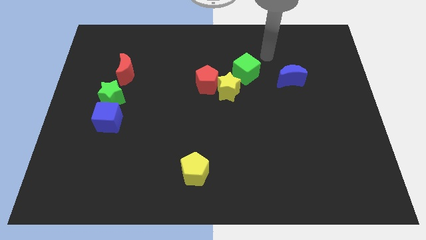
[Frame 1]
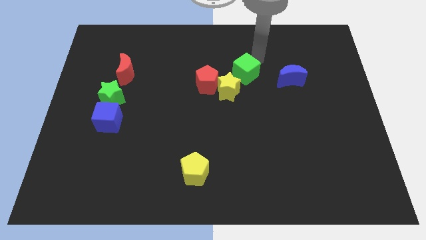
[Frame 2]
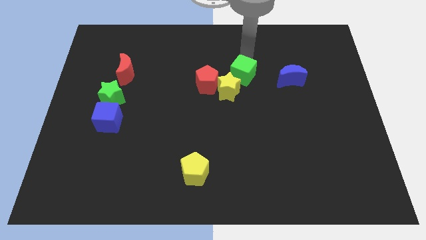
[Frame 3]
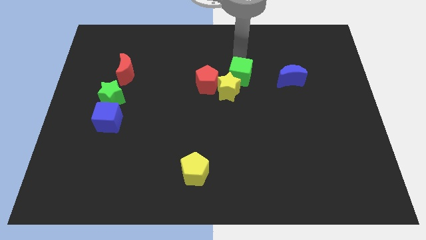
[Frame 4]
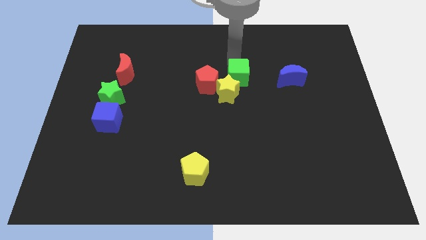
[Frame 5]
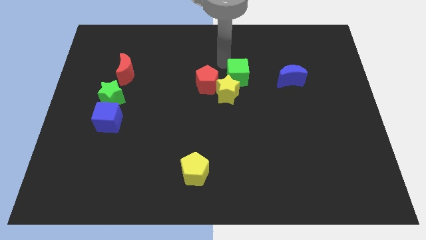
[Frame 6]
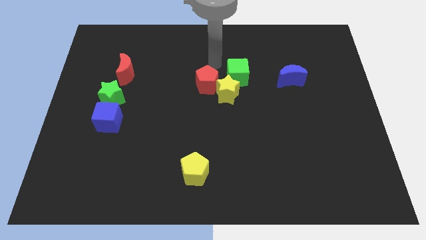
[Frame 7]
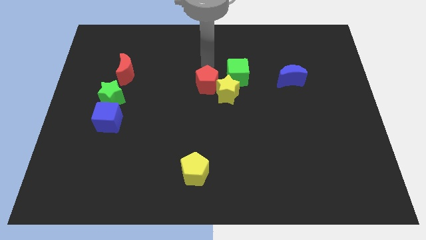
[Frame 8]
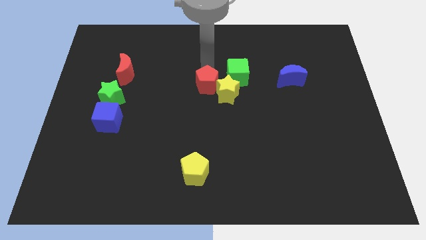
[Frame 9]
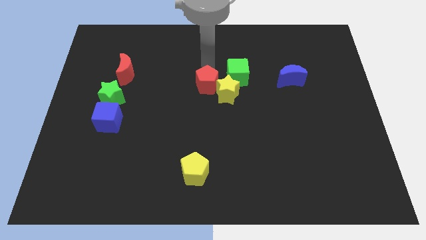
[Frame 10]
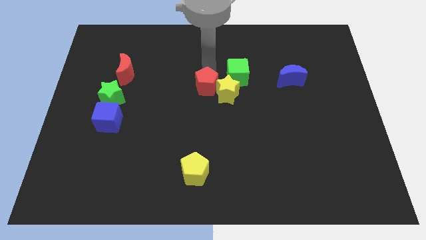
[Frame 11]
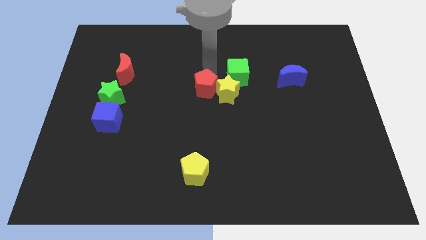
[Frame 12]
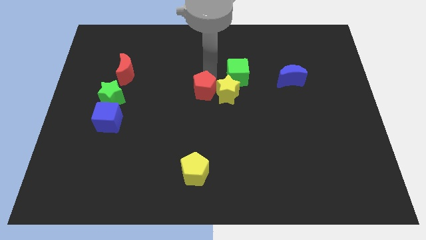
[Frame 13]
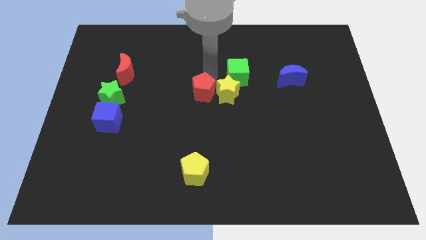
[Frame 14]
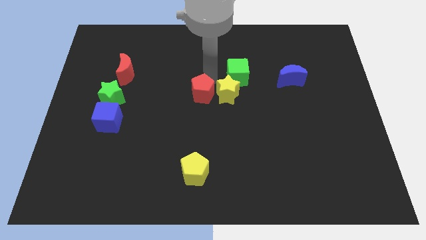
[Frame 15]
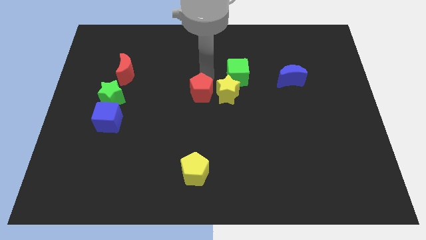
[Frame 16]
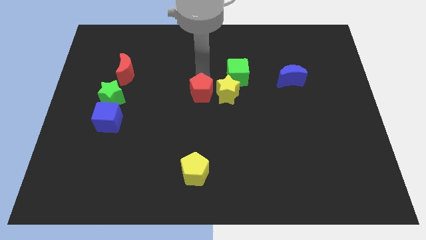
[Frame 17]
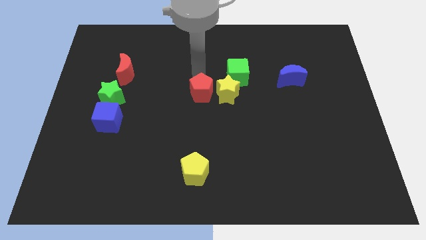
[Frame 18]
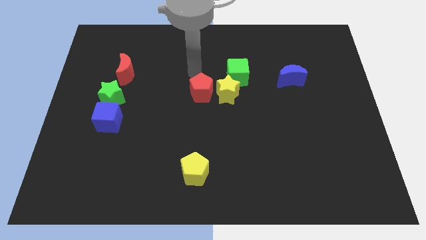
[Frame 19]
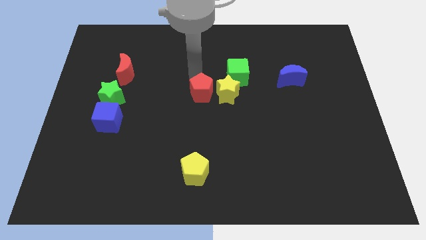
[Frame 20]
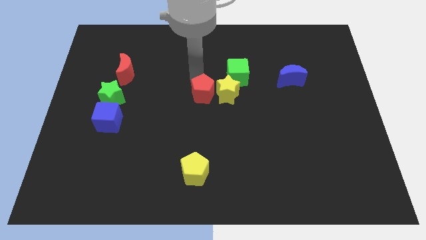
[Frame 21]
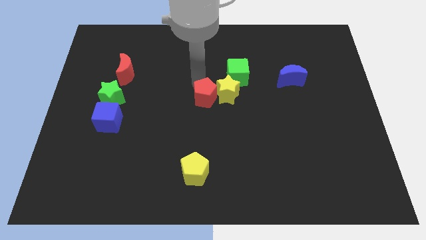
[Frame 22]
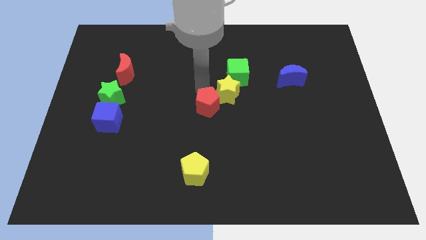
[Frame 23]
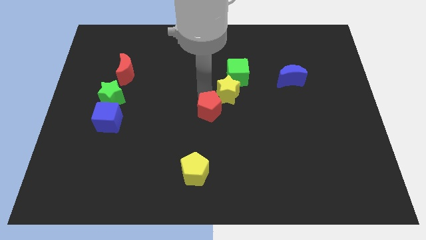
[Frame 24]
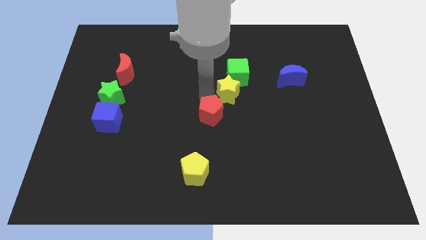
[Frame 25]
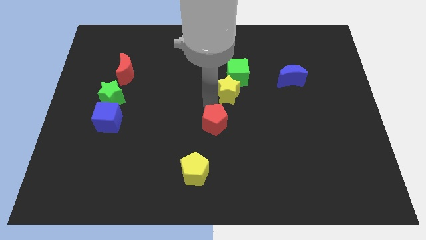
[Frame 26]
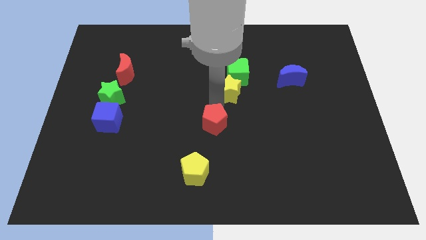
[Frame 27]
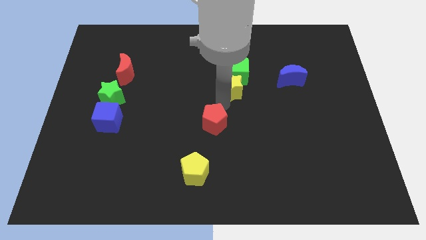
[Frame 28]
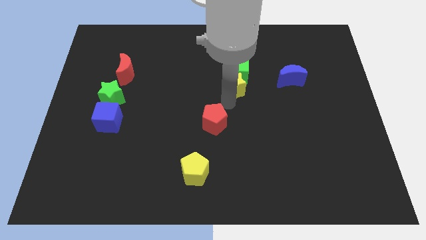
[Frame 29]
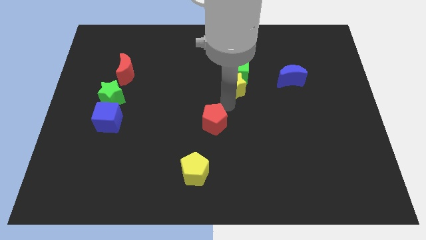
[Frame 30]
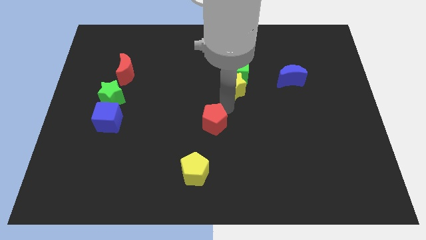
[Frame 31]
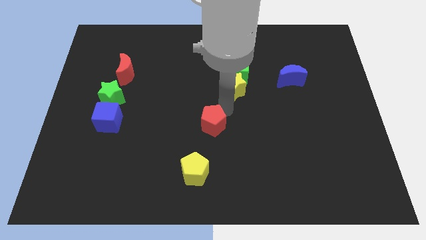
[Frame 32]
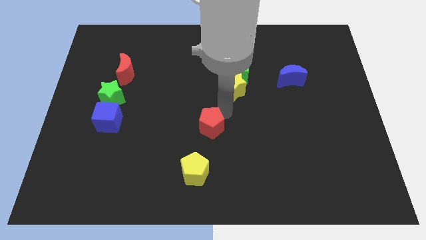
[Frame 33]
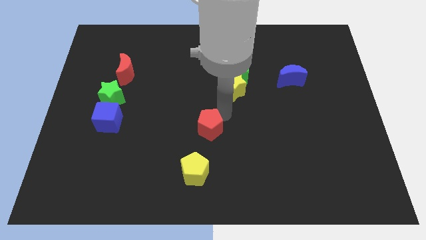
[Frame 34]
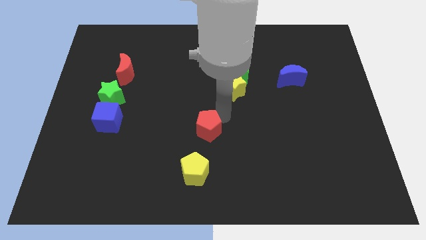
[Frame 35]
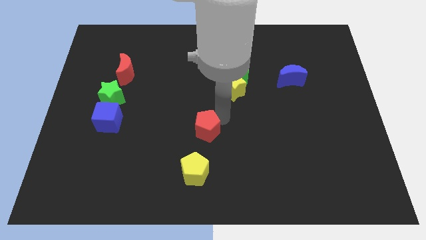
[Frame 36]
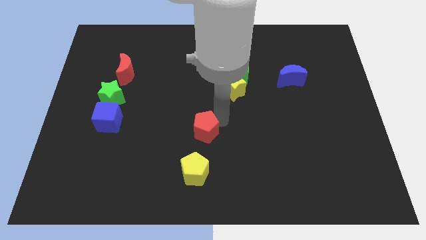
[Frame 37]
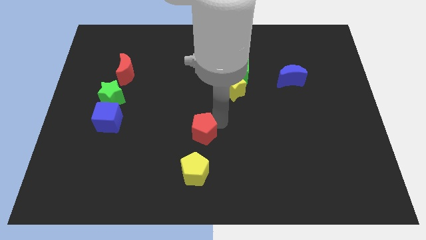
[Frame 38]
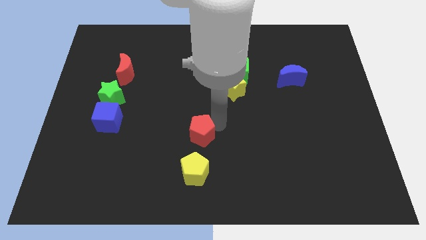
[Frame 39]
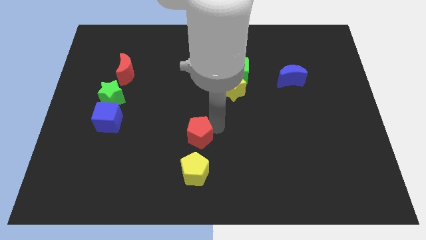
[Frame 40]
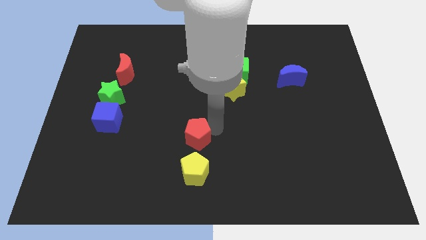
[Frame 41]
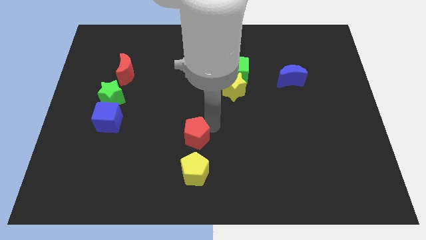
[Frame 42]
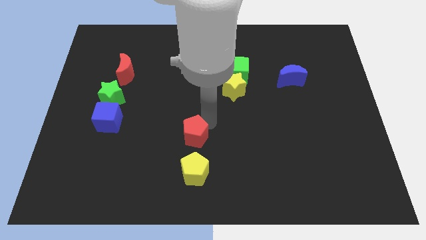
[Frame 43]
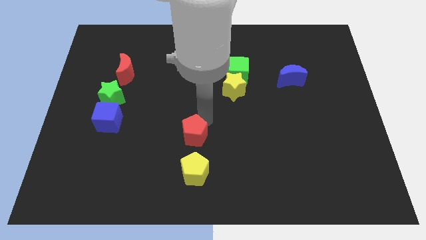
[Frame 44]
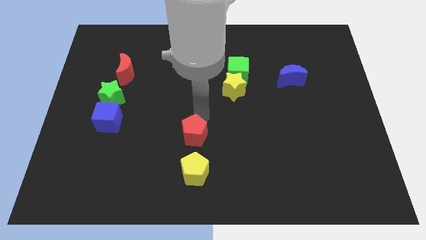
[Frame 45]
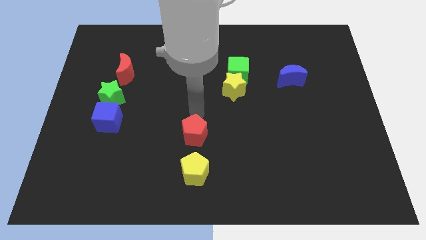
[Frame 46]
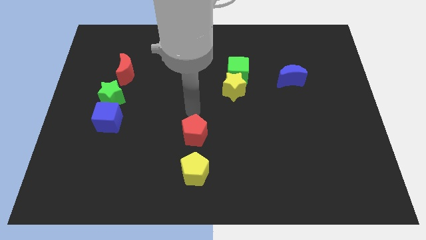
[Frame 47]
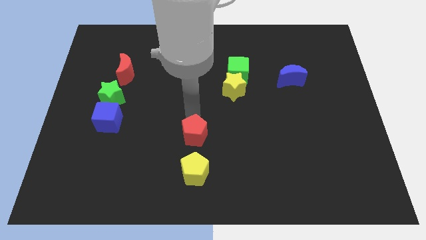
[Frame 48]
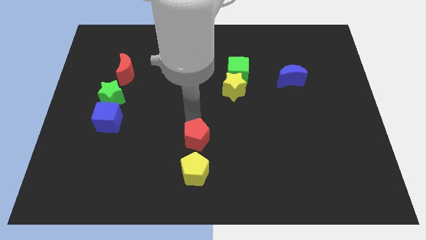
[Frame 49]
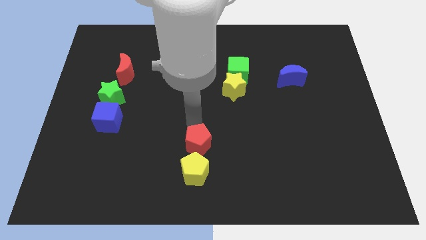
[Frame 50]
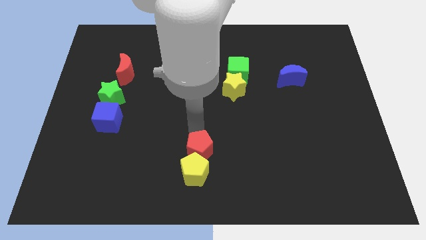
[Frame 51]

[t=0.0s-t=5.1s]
move the red pentagon next to the yellow pentagon
